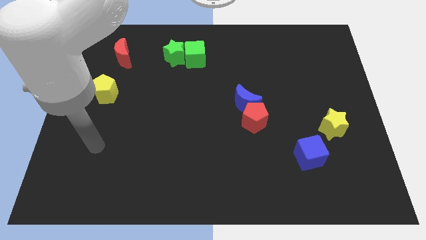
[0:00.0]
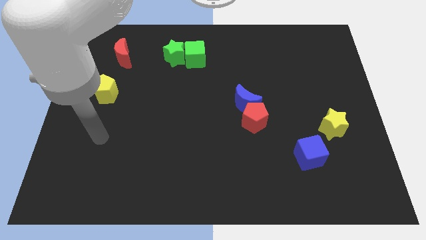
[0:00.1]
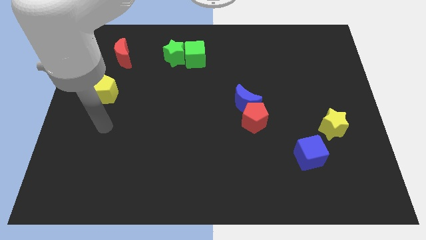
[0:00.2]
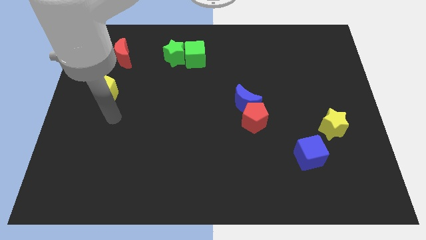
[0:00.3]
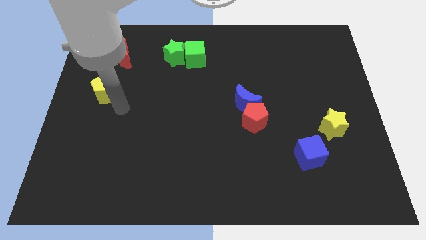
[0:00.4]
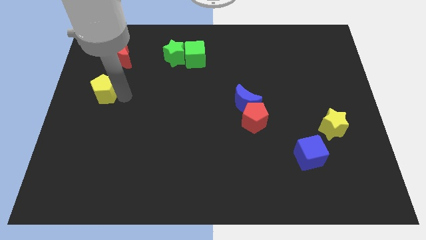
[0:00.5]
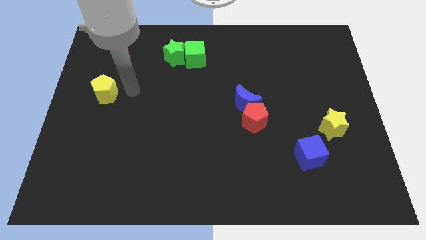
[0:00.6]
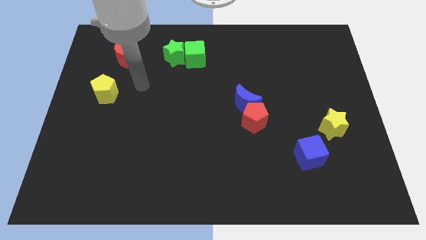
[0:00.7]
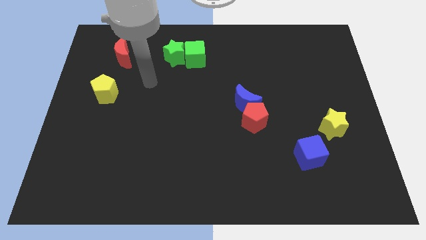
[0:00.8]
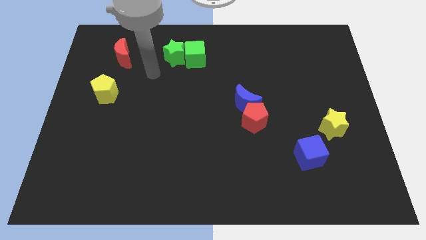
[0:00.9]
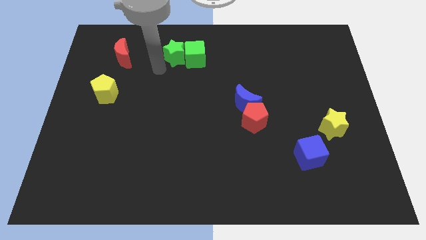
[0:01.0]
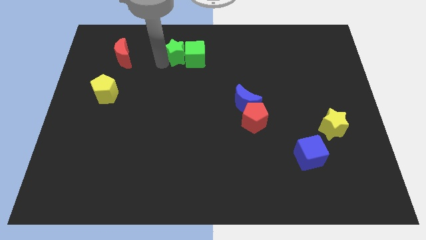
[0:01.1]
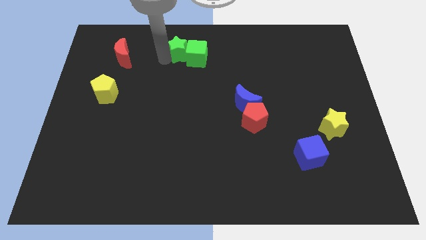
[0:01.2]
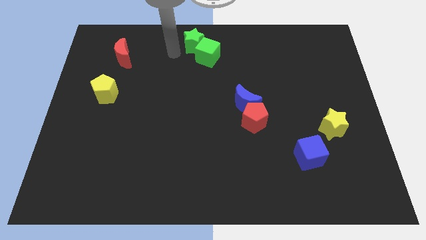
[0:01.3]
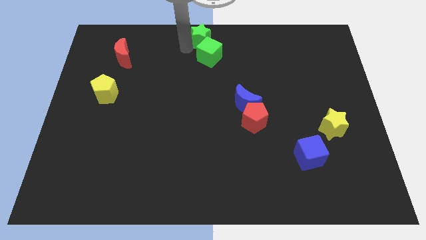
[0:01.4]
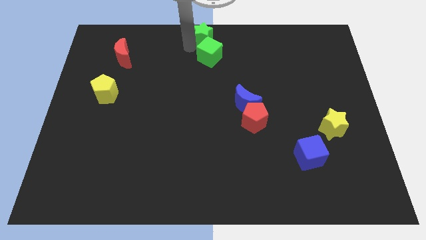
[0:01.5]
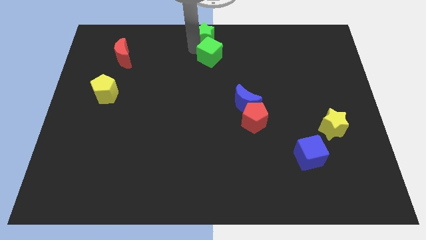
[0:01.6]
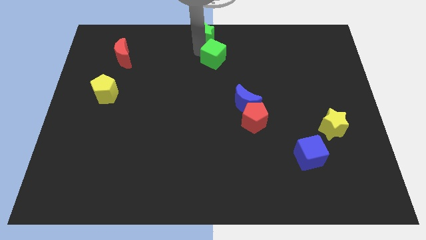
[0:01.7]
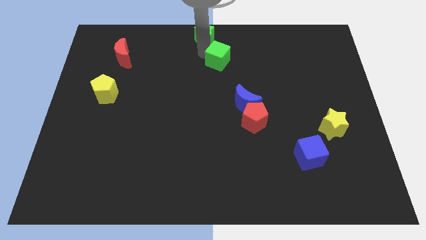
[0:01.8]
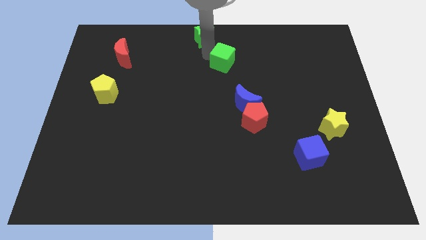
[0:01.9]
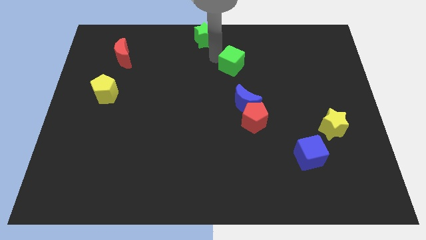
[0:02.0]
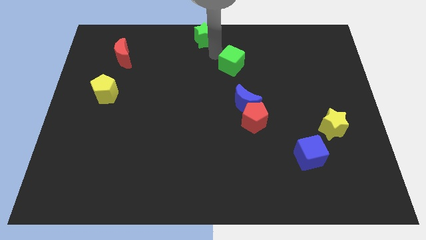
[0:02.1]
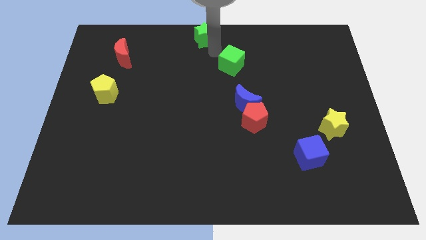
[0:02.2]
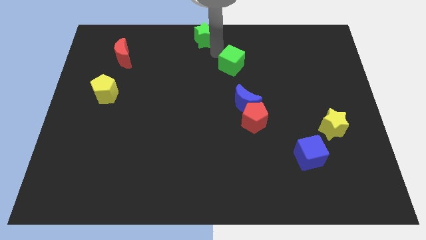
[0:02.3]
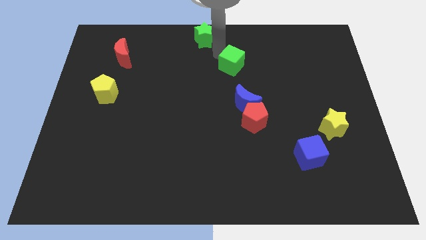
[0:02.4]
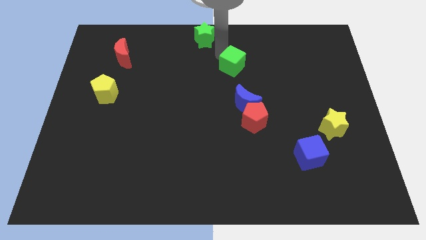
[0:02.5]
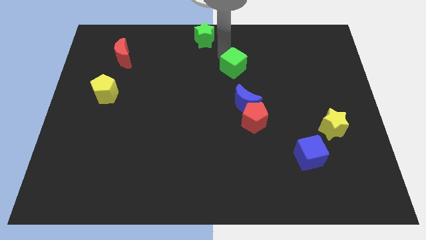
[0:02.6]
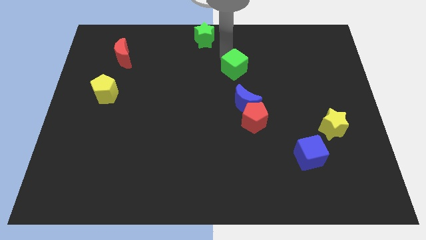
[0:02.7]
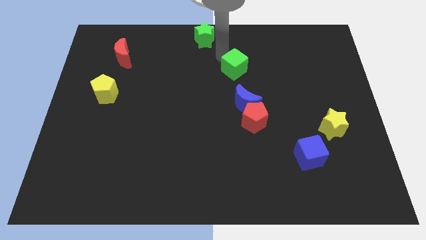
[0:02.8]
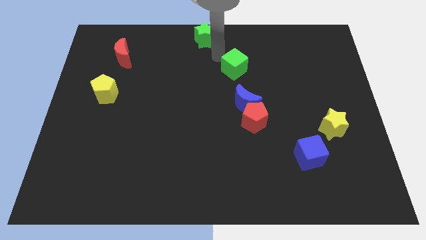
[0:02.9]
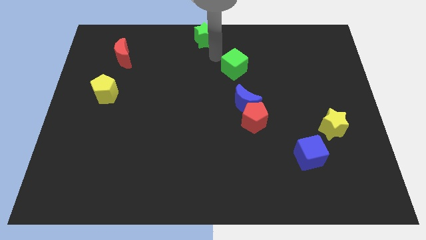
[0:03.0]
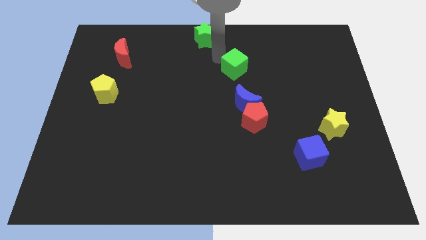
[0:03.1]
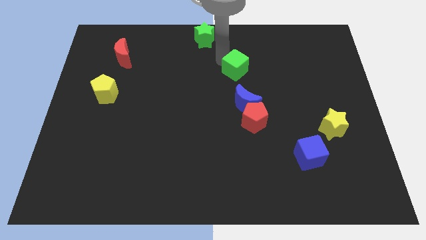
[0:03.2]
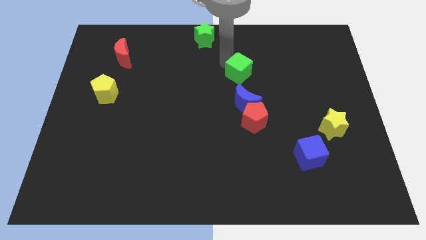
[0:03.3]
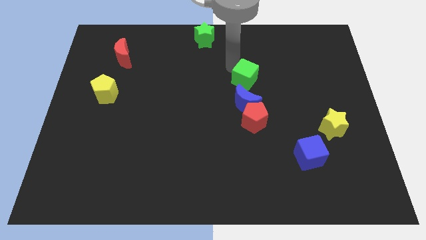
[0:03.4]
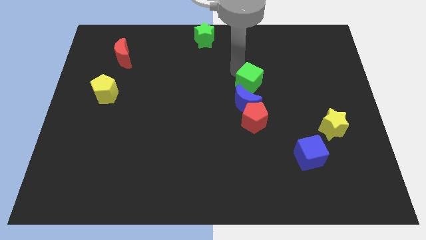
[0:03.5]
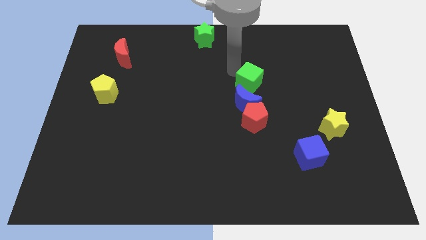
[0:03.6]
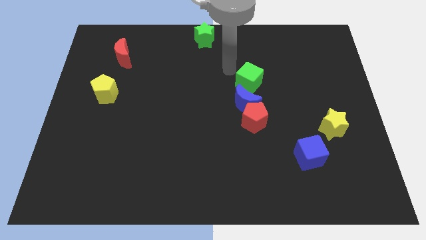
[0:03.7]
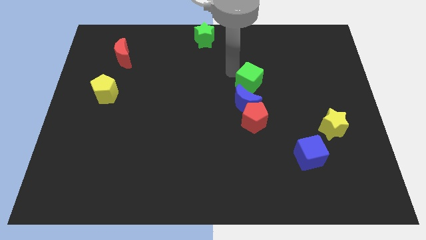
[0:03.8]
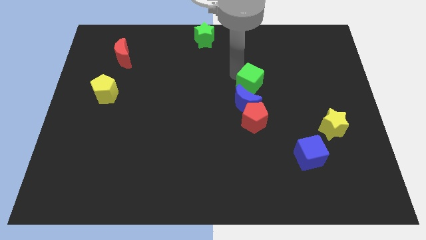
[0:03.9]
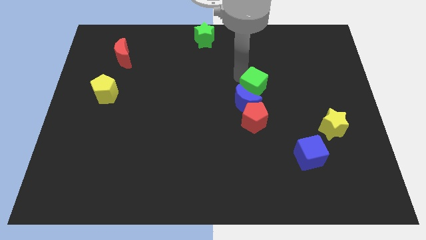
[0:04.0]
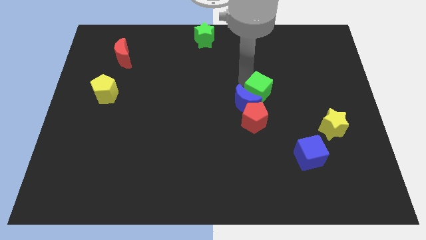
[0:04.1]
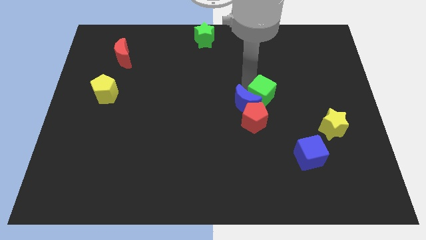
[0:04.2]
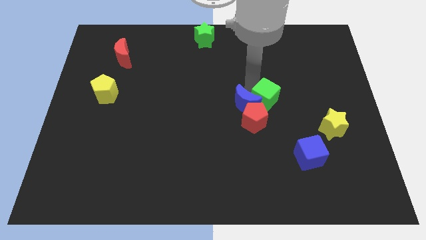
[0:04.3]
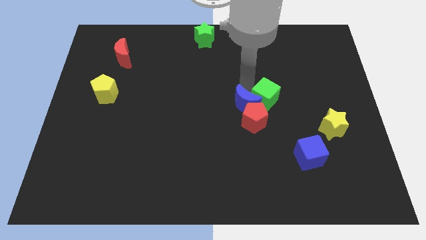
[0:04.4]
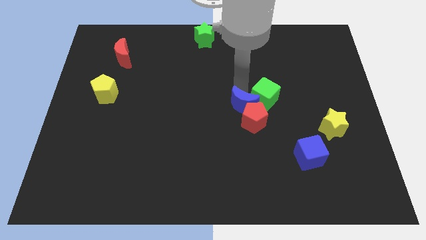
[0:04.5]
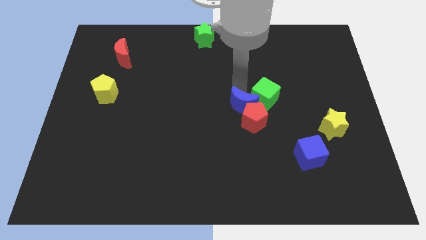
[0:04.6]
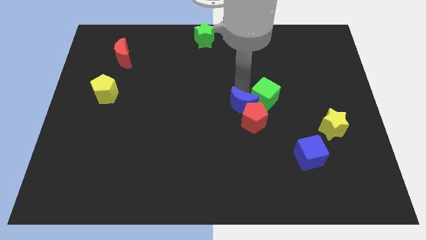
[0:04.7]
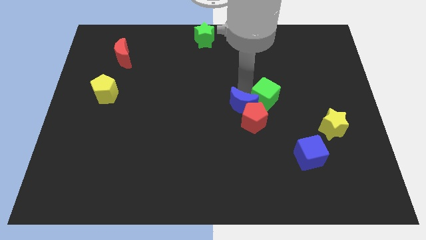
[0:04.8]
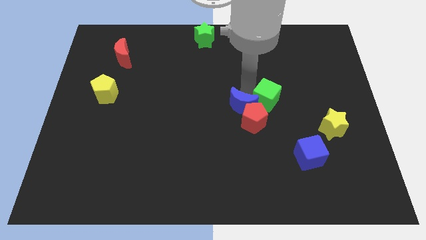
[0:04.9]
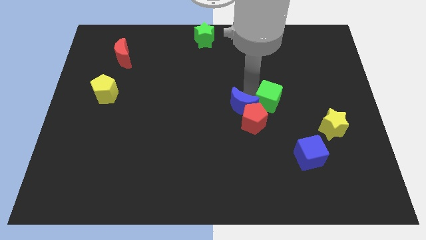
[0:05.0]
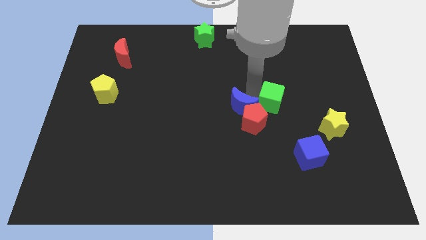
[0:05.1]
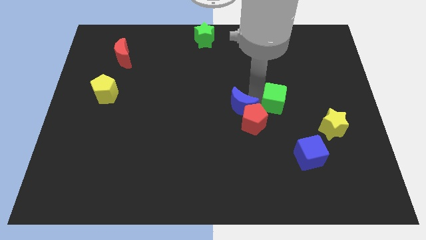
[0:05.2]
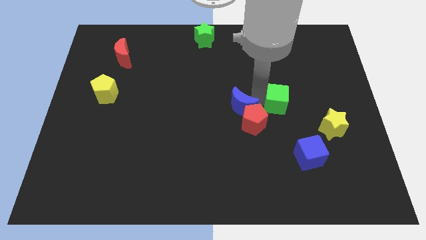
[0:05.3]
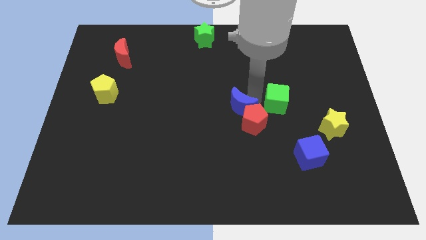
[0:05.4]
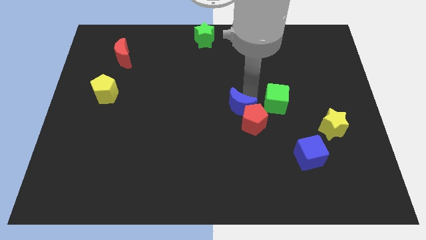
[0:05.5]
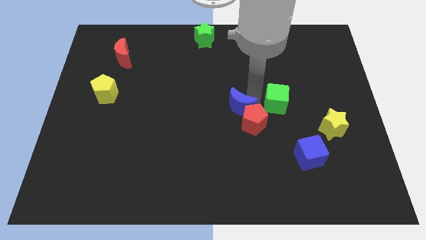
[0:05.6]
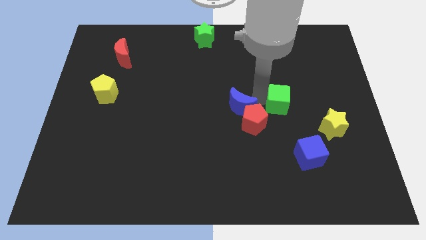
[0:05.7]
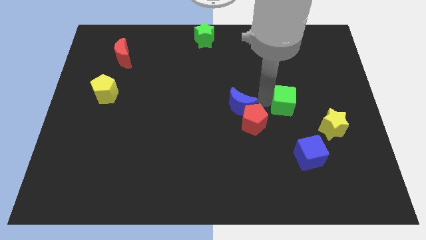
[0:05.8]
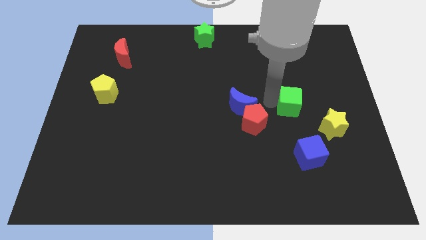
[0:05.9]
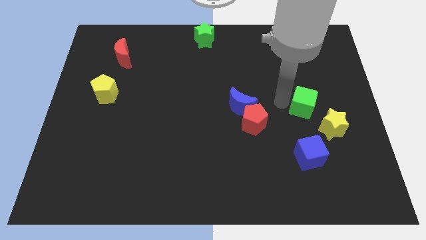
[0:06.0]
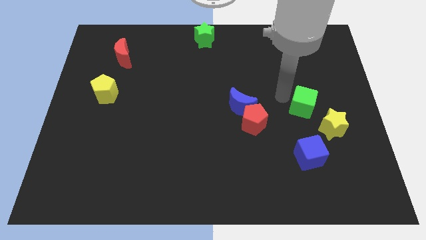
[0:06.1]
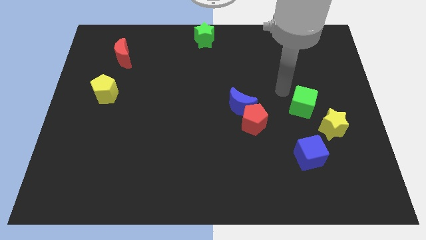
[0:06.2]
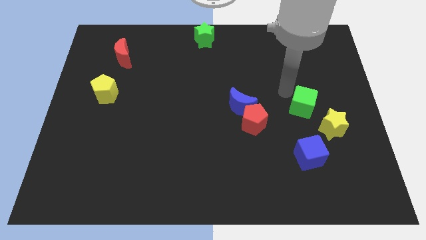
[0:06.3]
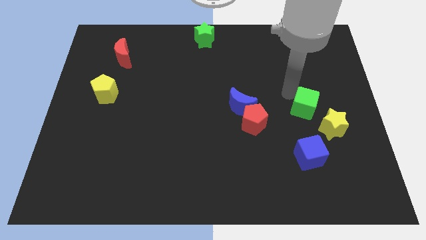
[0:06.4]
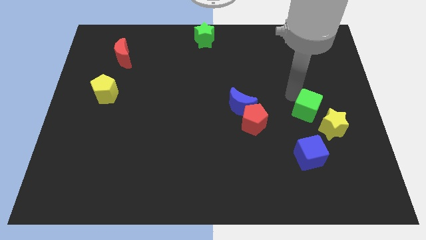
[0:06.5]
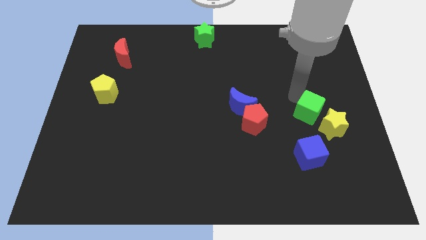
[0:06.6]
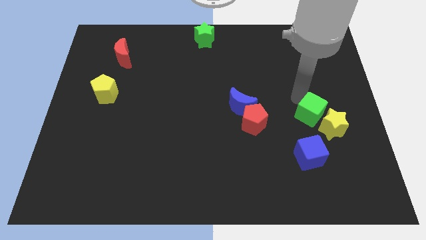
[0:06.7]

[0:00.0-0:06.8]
put the green cube to the yellow star
